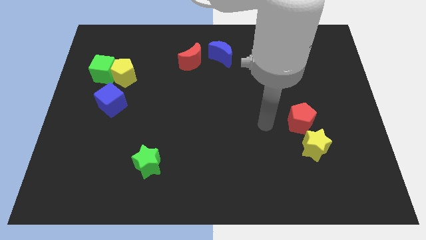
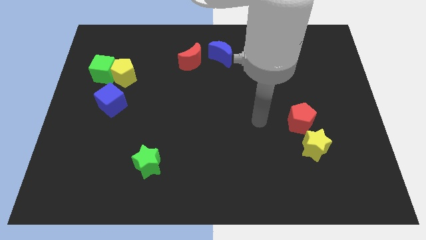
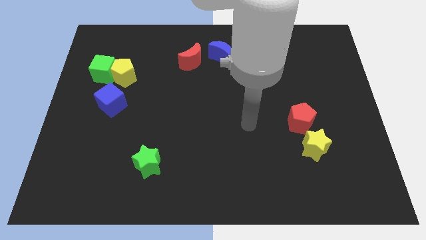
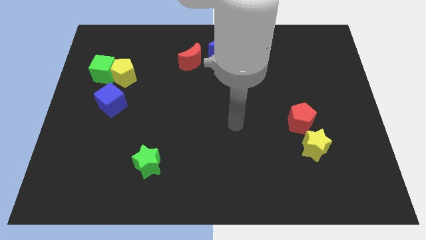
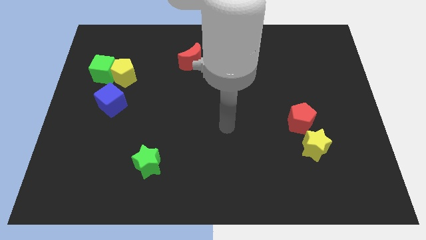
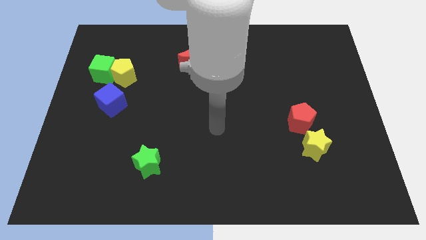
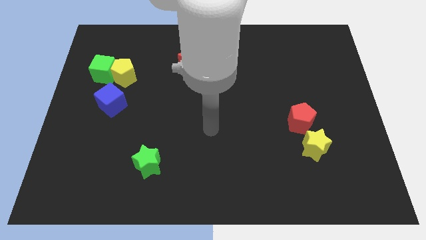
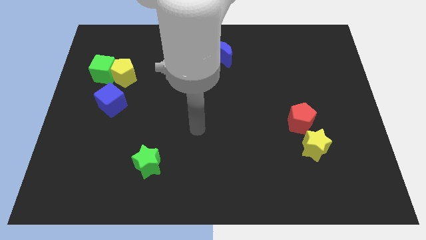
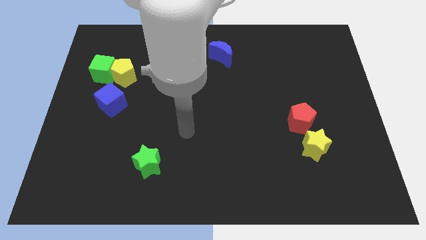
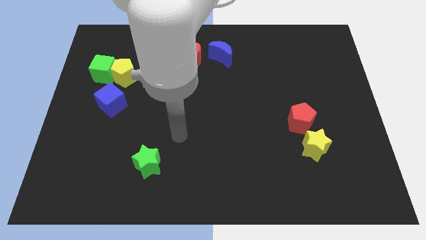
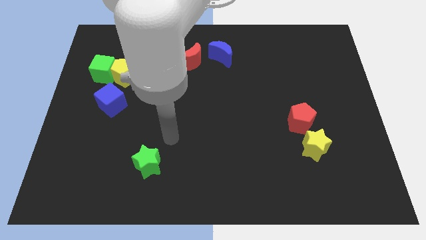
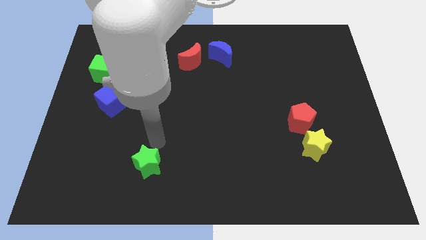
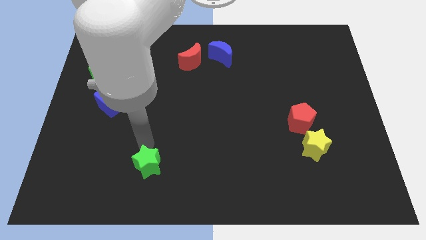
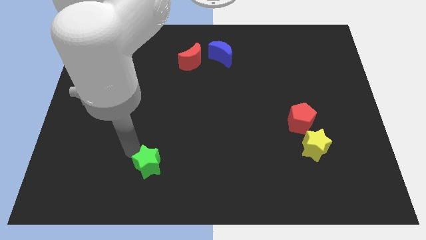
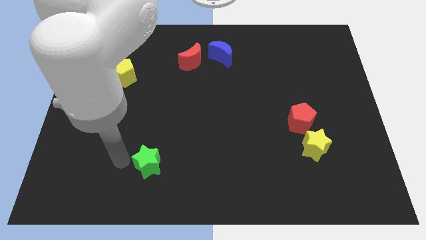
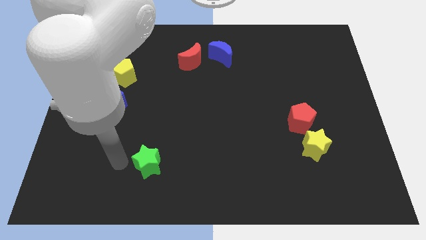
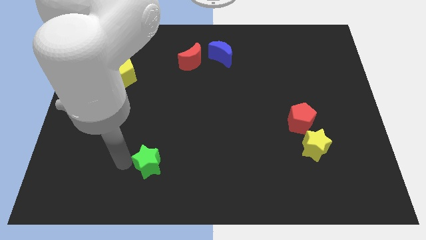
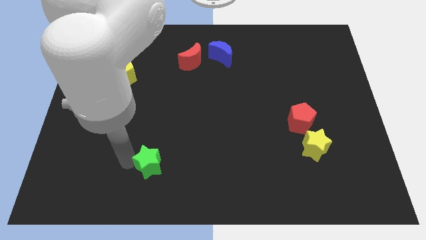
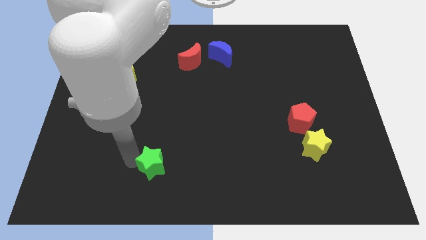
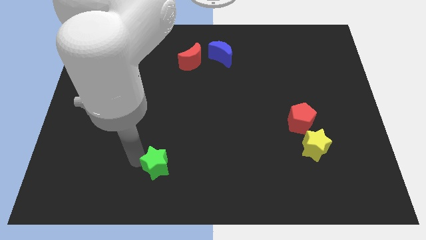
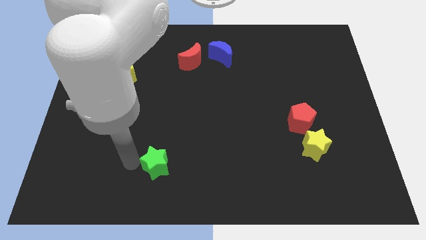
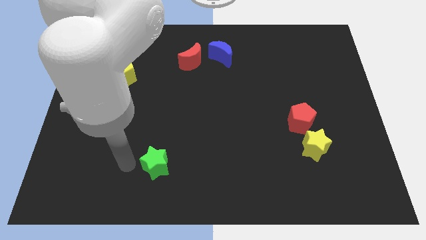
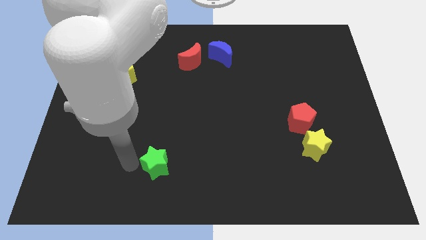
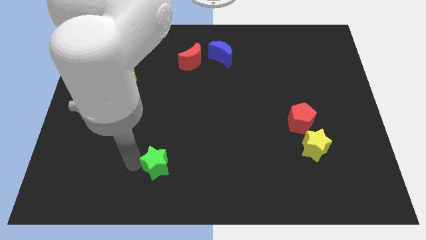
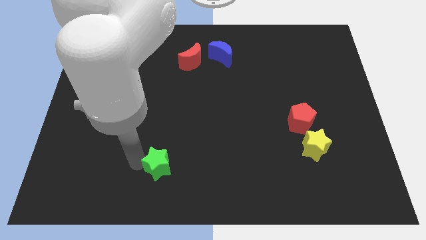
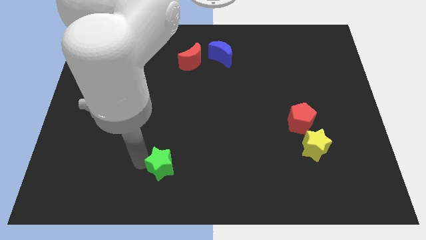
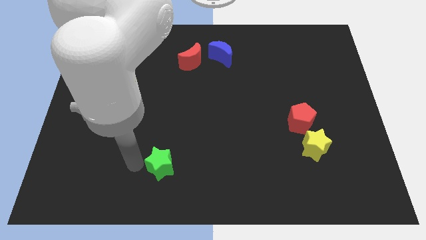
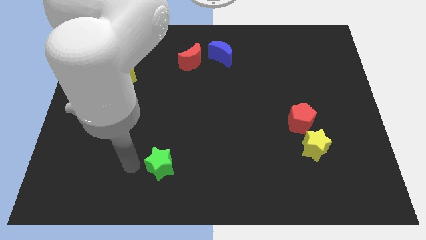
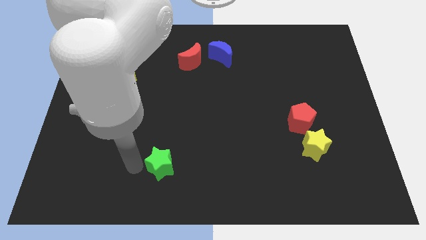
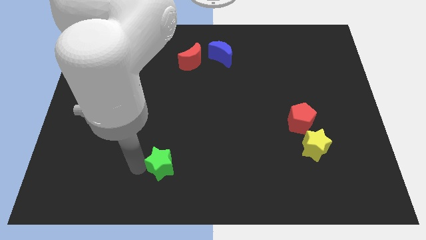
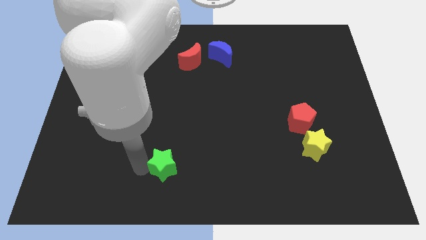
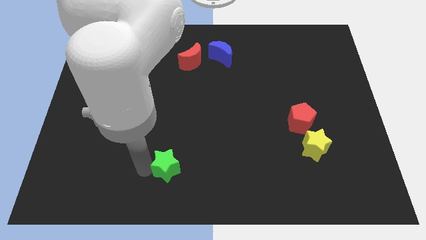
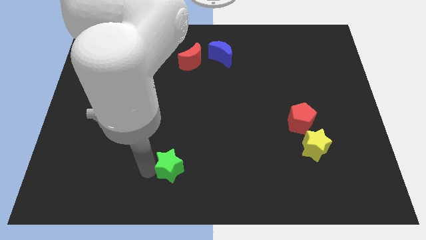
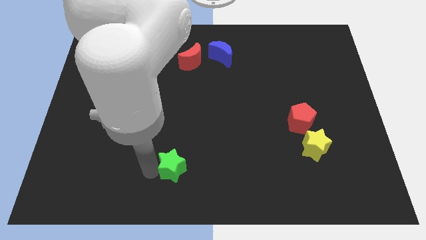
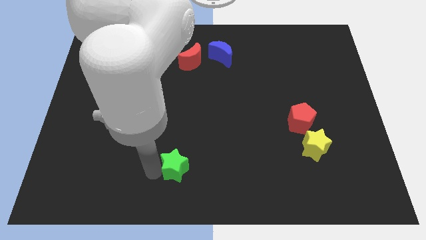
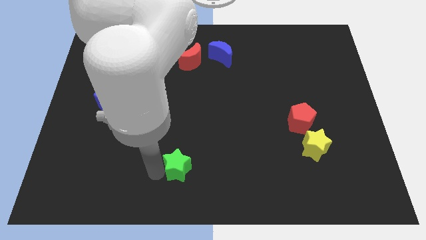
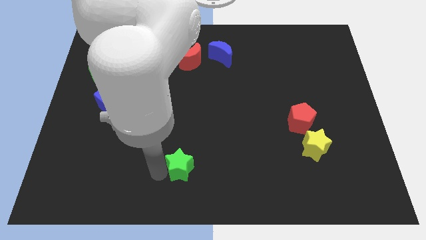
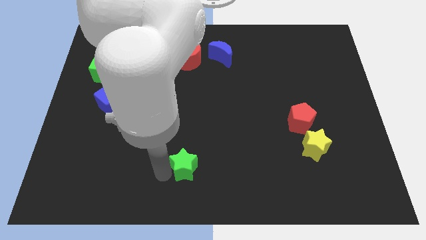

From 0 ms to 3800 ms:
slide the green star a bit right

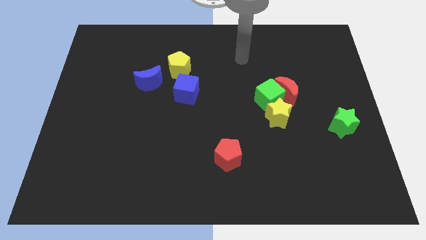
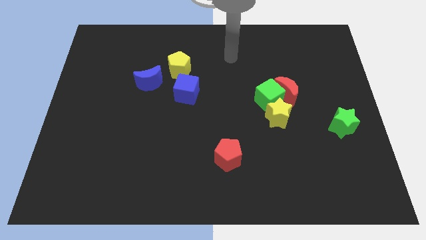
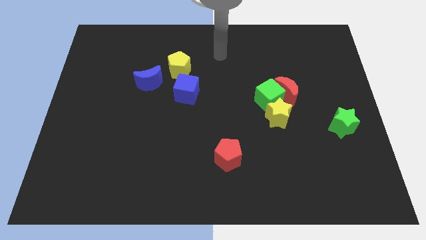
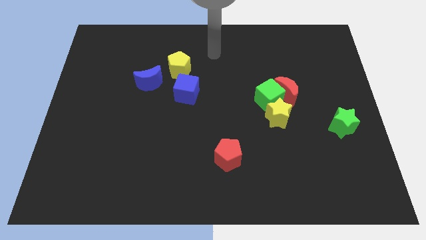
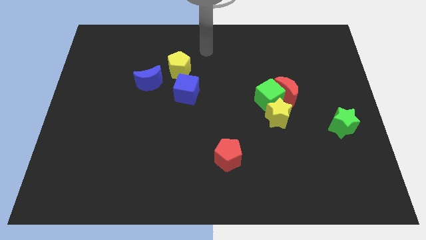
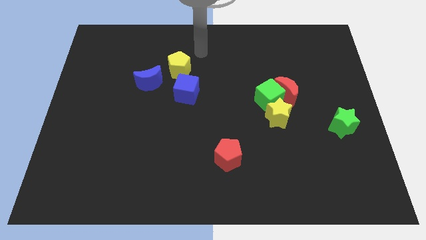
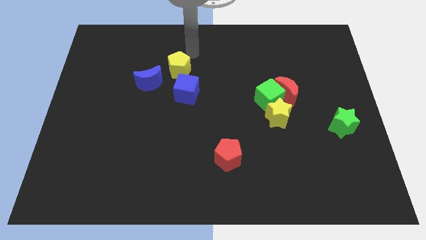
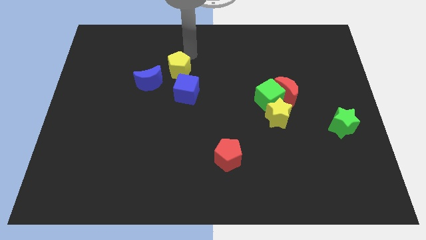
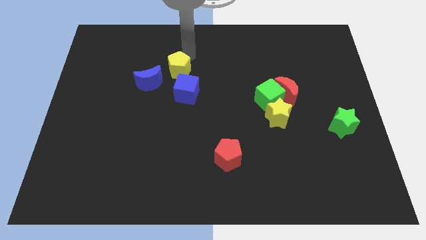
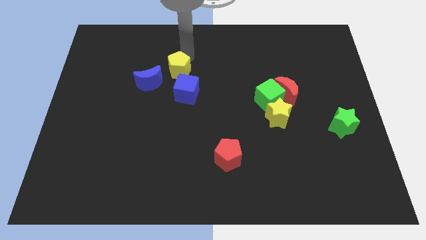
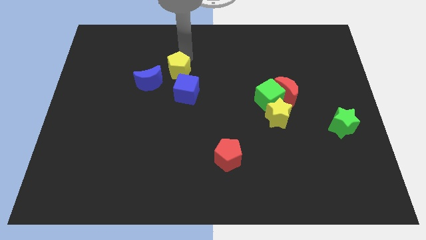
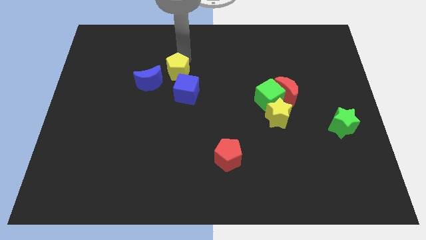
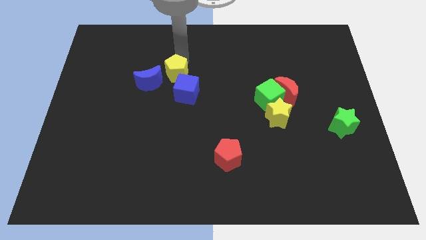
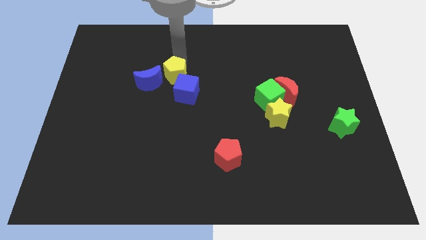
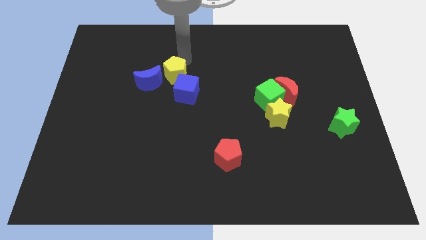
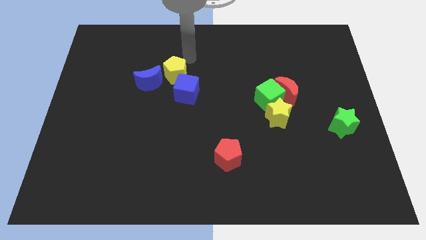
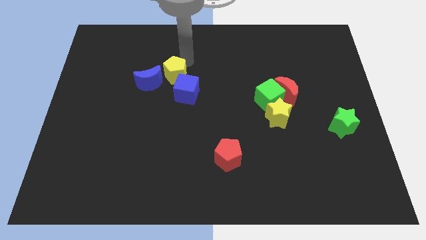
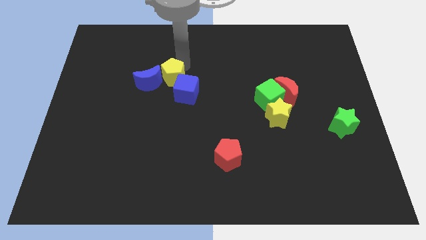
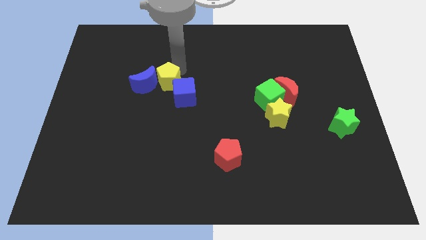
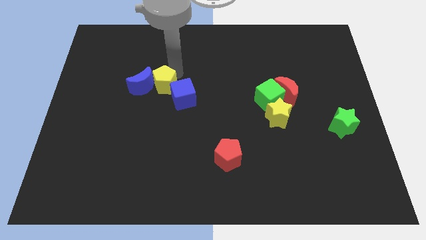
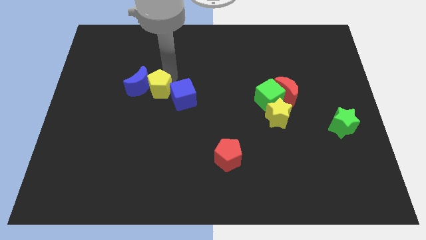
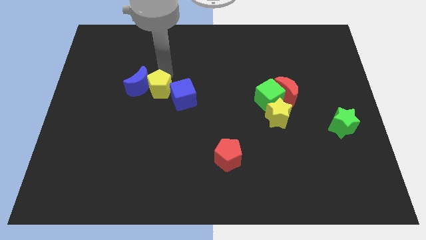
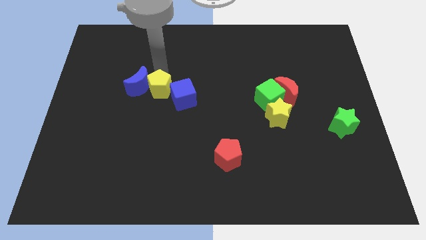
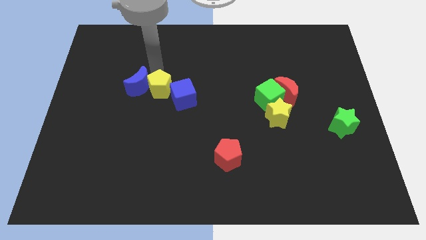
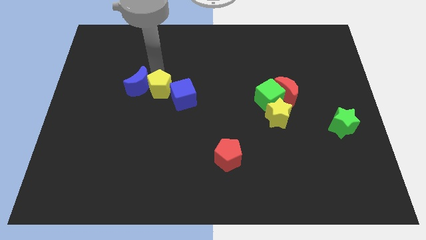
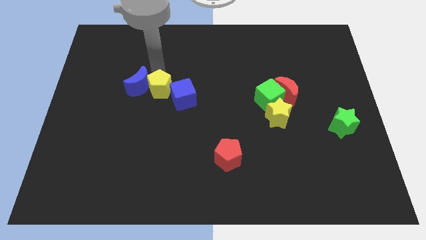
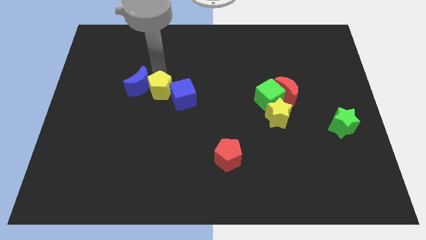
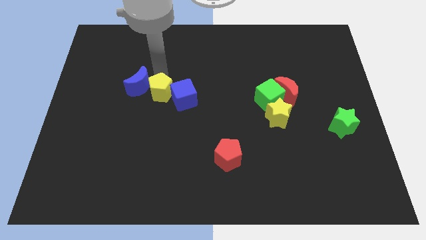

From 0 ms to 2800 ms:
push the yellow pentagon down slightly

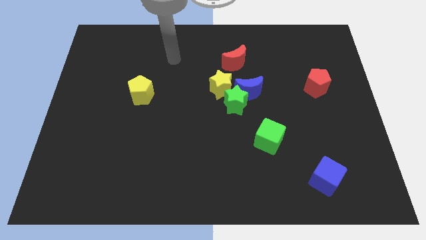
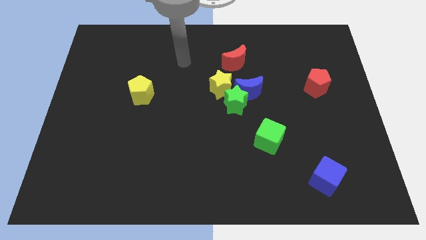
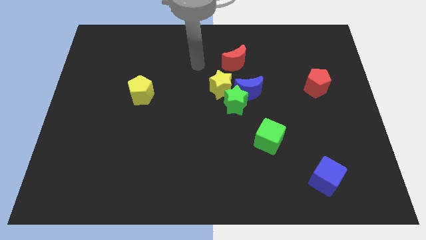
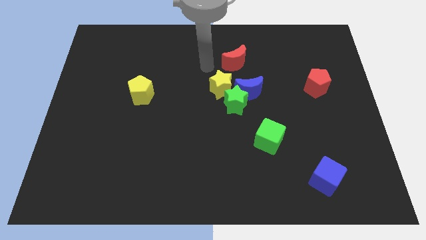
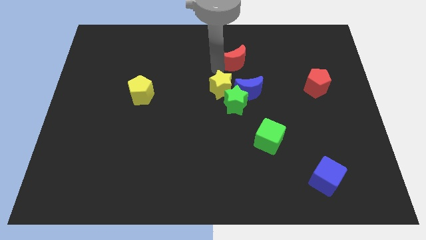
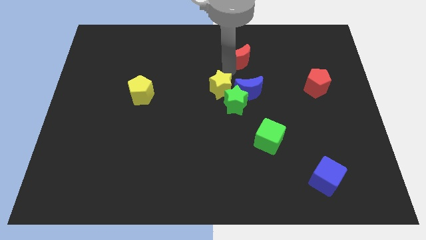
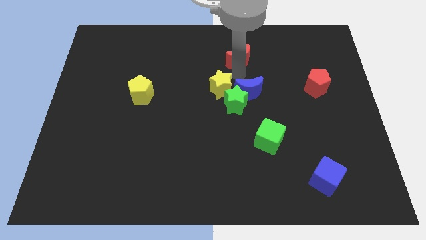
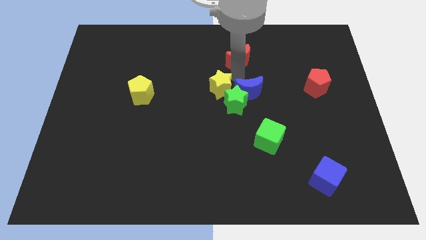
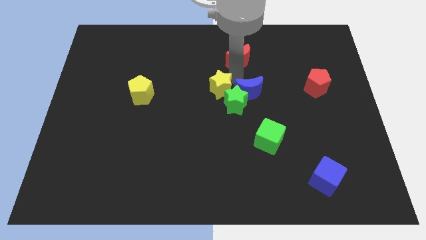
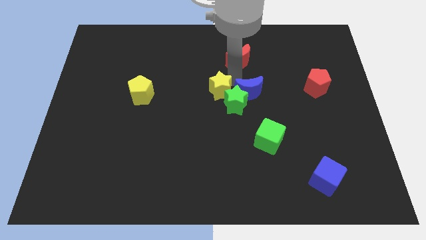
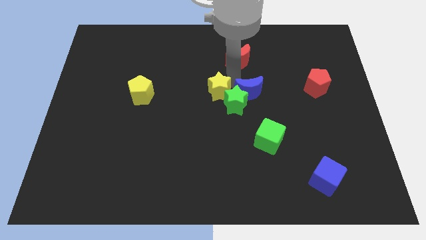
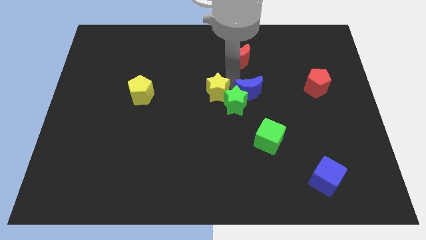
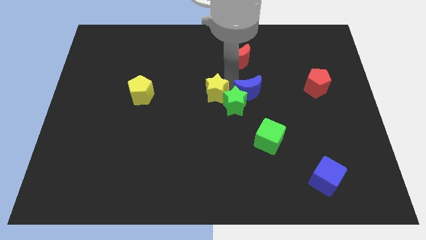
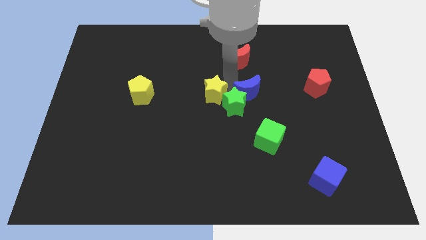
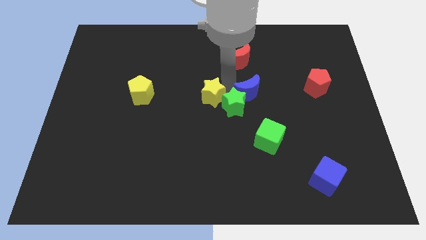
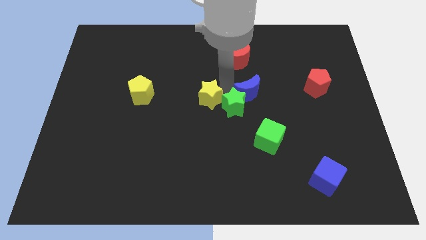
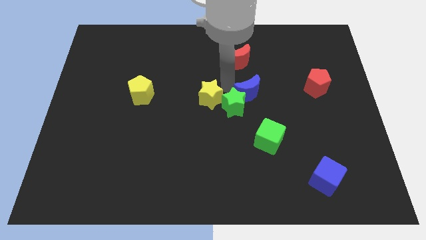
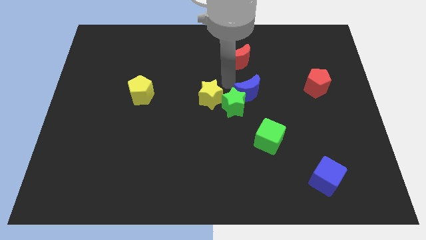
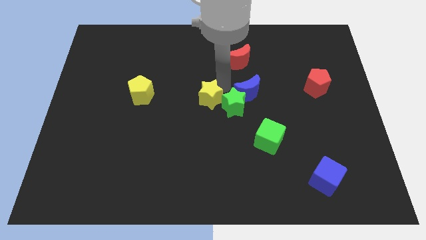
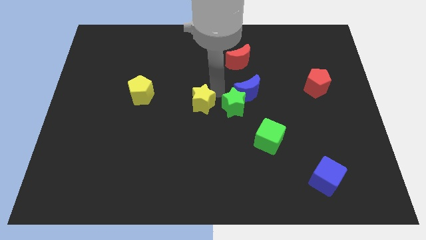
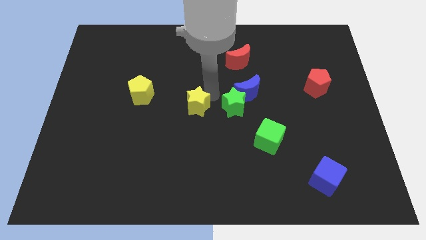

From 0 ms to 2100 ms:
slightly push the yellow star downwards and then left
